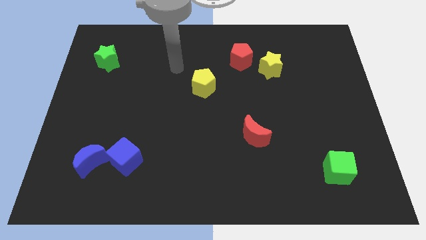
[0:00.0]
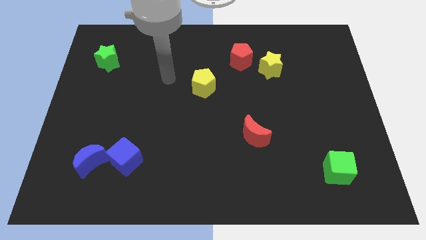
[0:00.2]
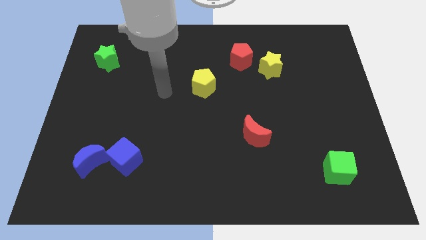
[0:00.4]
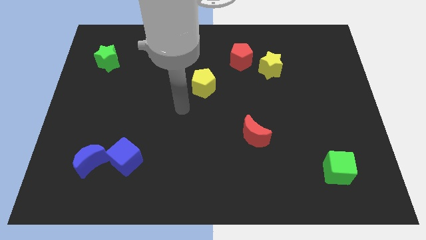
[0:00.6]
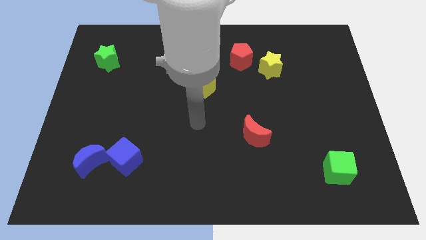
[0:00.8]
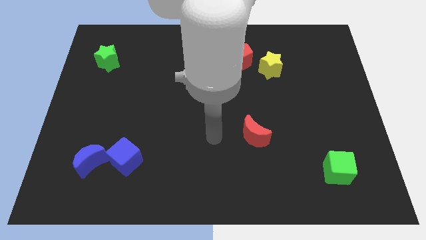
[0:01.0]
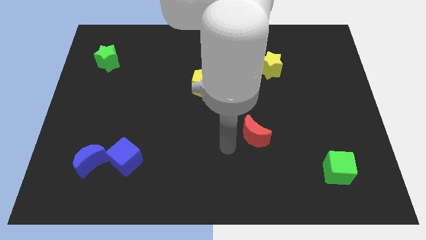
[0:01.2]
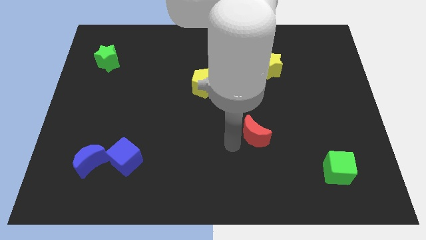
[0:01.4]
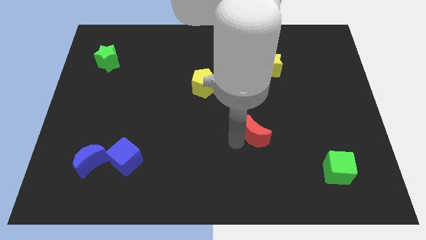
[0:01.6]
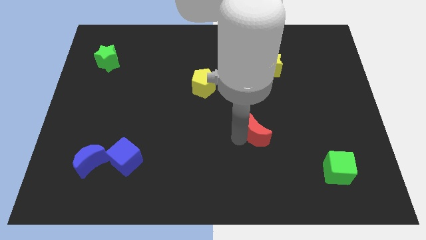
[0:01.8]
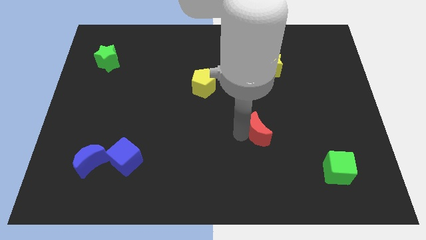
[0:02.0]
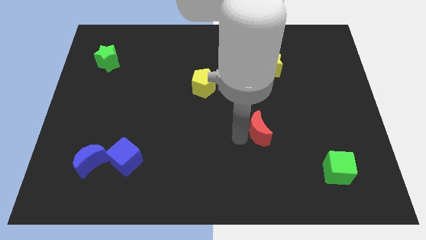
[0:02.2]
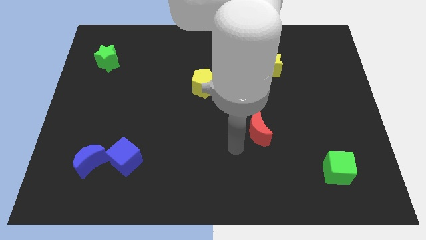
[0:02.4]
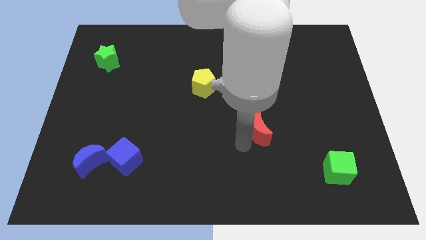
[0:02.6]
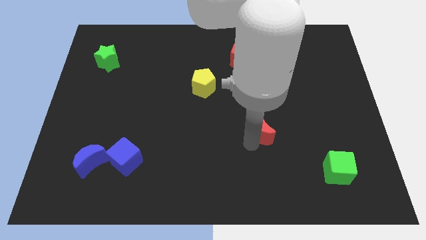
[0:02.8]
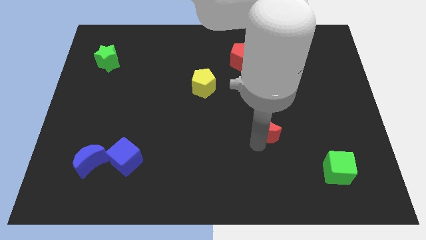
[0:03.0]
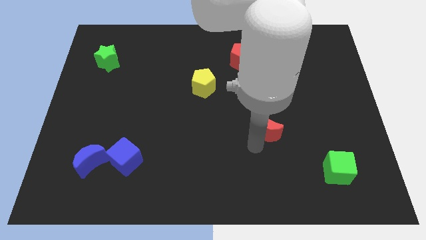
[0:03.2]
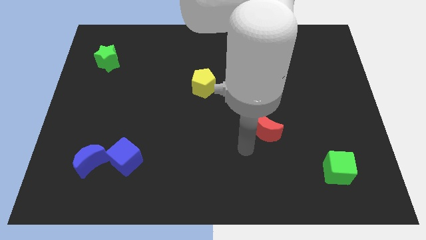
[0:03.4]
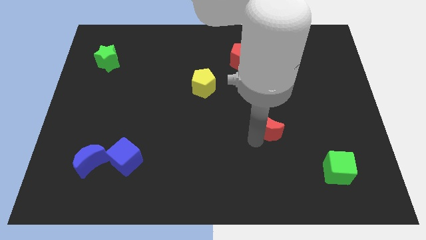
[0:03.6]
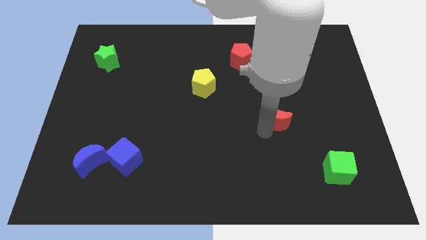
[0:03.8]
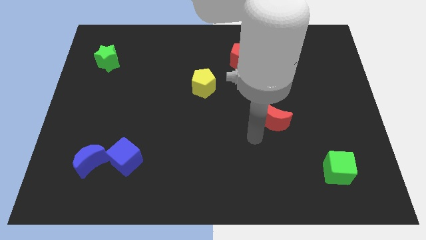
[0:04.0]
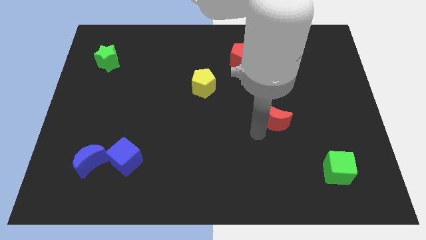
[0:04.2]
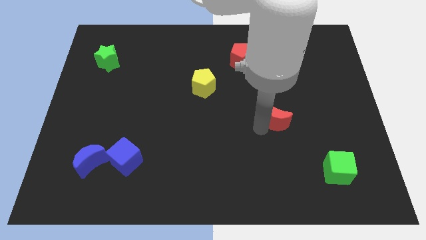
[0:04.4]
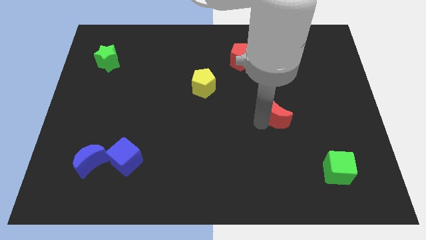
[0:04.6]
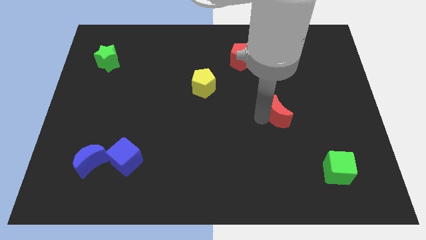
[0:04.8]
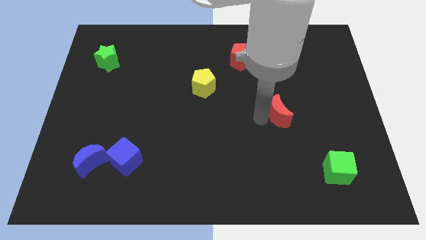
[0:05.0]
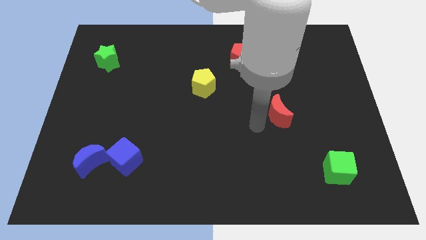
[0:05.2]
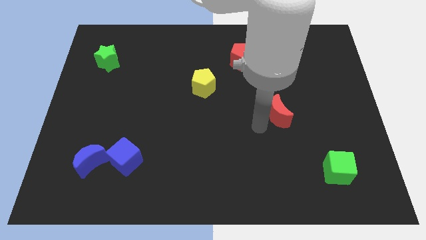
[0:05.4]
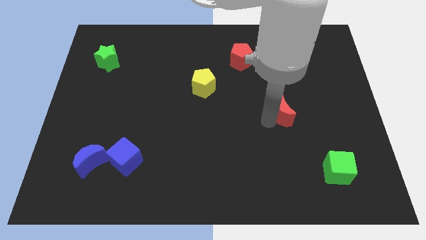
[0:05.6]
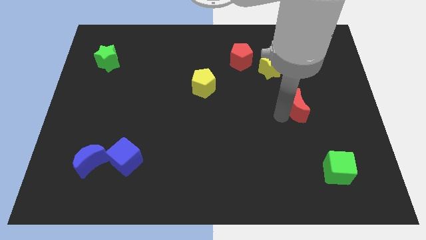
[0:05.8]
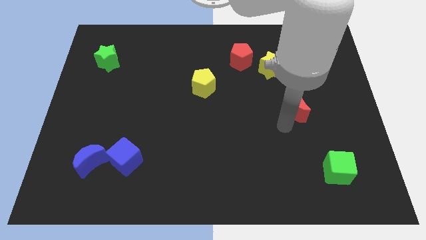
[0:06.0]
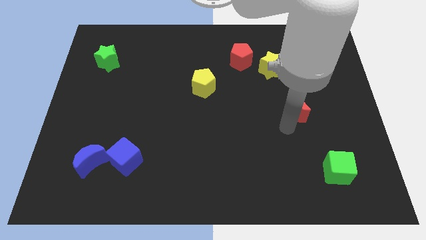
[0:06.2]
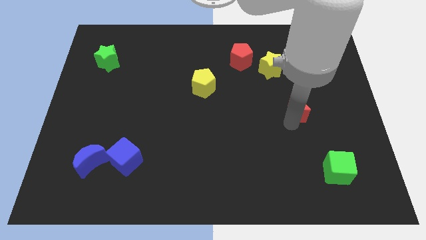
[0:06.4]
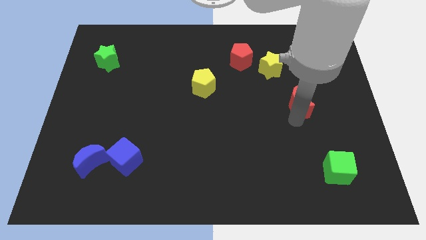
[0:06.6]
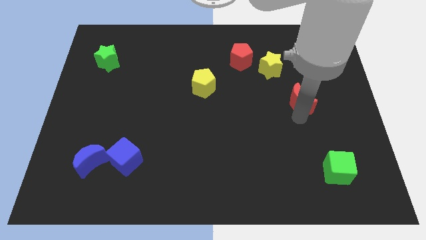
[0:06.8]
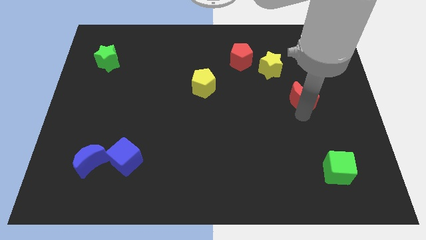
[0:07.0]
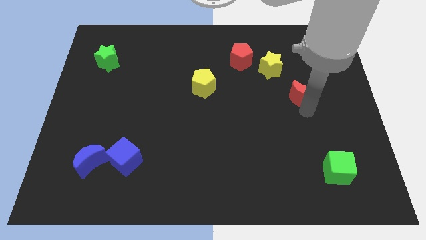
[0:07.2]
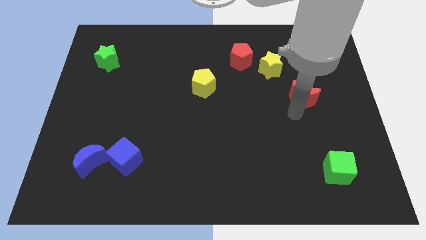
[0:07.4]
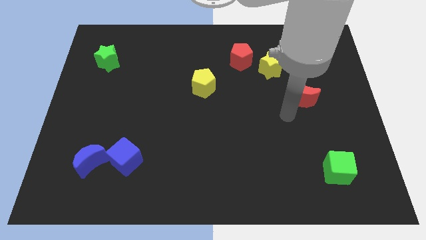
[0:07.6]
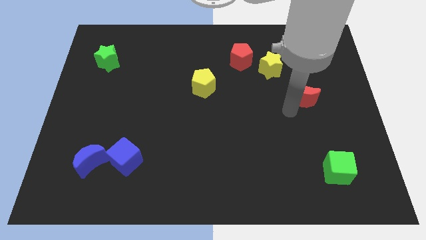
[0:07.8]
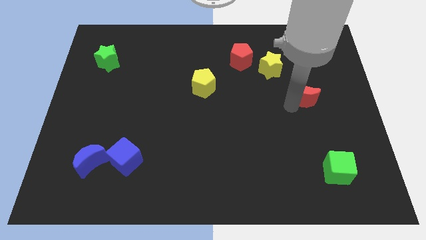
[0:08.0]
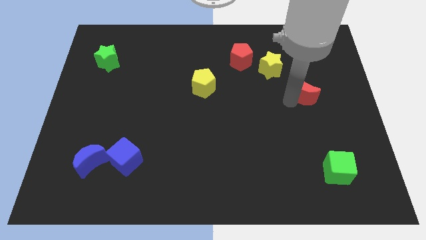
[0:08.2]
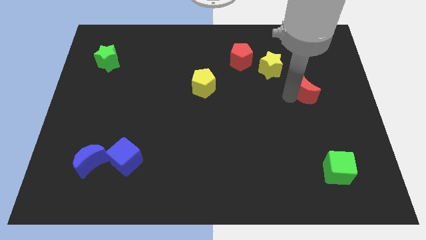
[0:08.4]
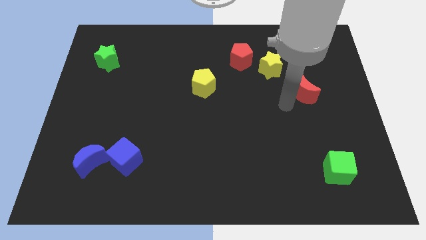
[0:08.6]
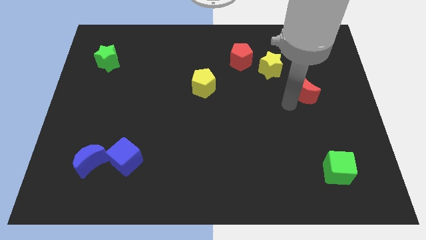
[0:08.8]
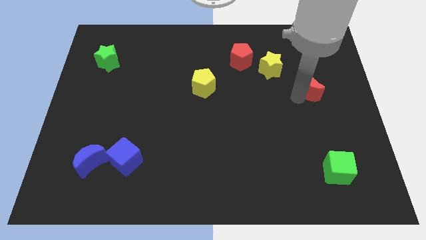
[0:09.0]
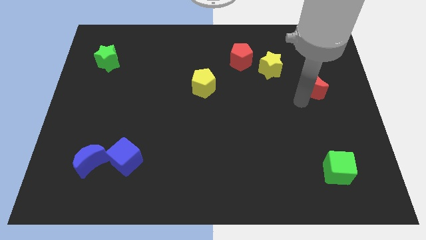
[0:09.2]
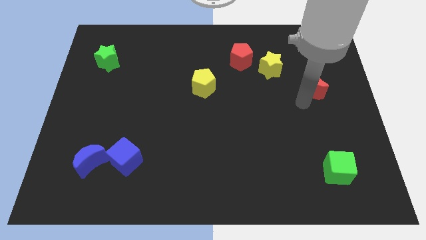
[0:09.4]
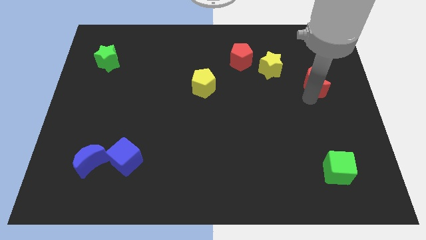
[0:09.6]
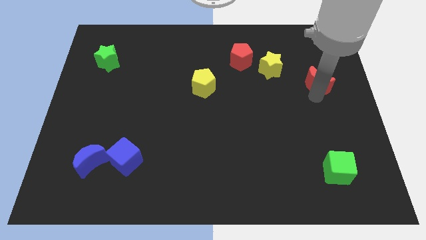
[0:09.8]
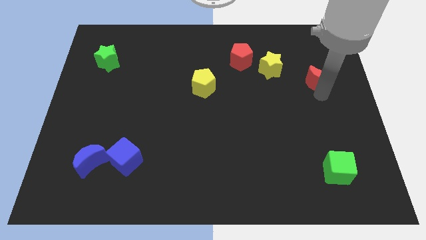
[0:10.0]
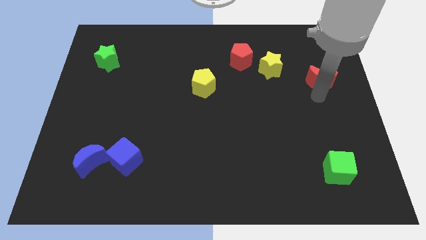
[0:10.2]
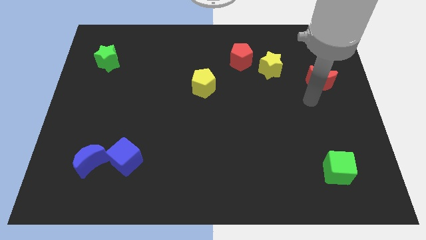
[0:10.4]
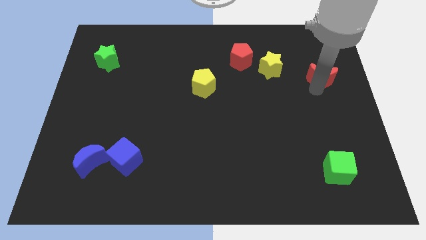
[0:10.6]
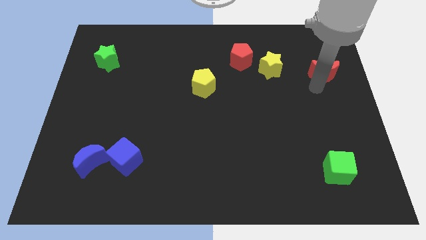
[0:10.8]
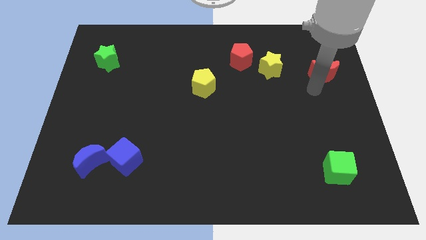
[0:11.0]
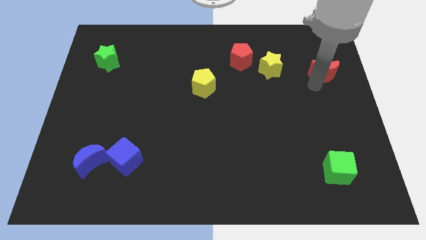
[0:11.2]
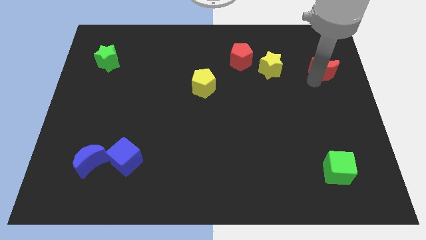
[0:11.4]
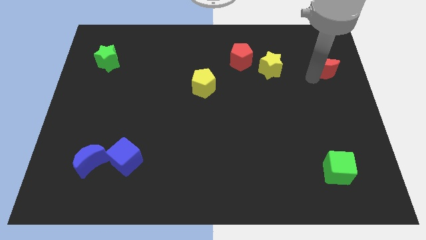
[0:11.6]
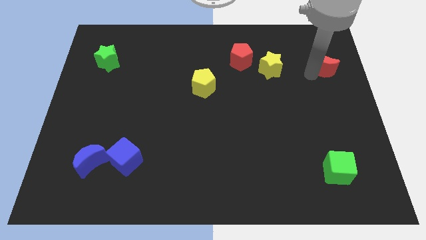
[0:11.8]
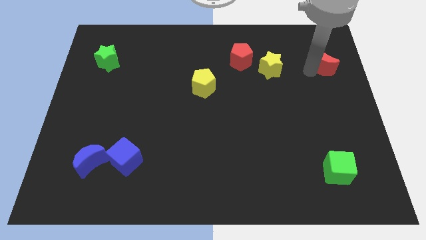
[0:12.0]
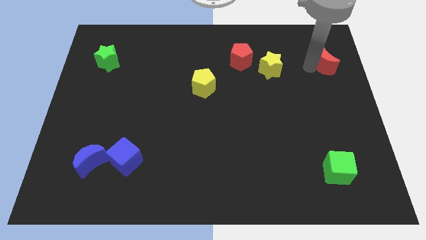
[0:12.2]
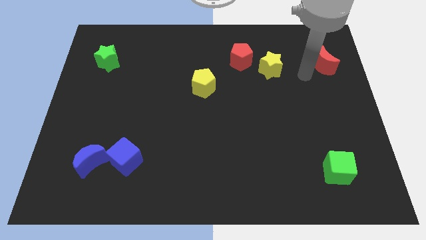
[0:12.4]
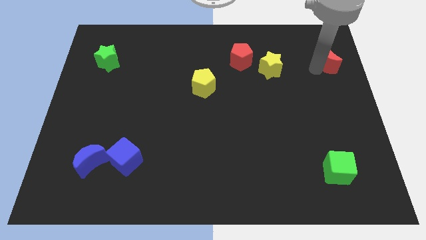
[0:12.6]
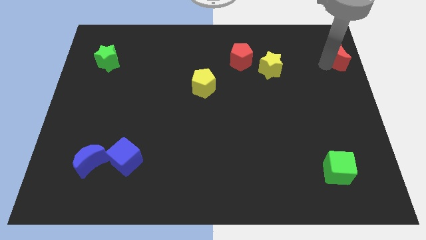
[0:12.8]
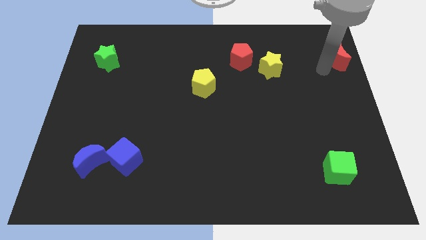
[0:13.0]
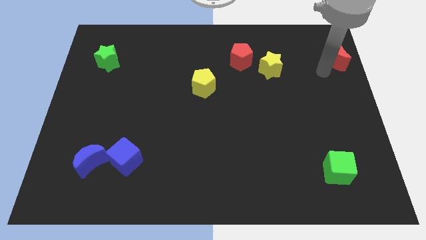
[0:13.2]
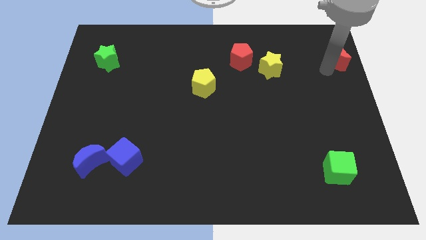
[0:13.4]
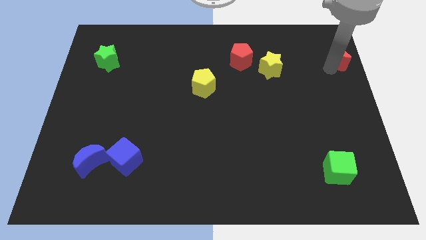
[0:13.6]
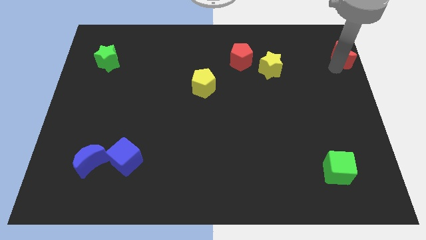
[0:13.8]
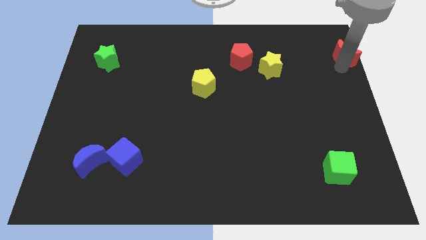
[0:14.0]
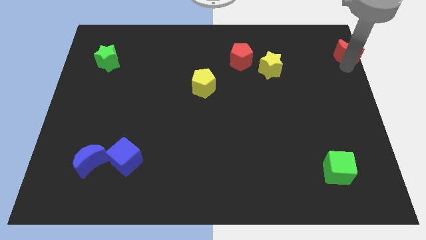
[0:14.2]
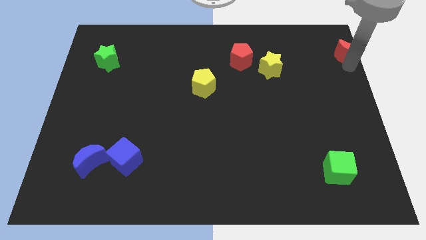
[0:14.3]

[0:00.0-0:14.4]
push the red moon to the top right of the board
